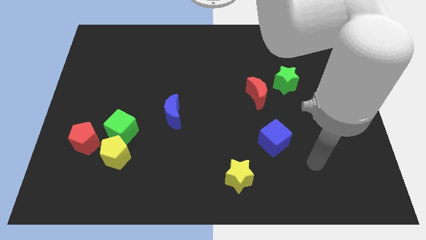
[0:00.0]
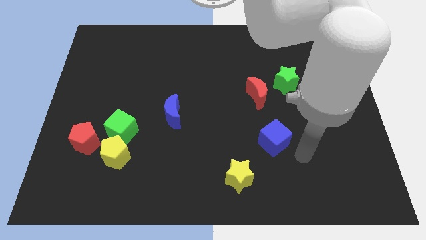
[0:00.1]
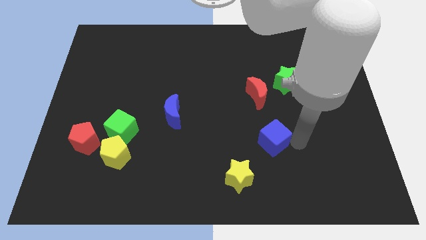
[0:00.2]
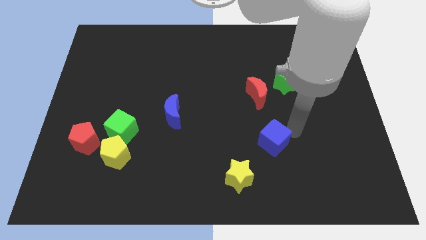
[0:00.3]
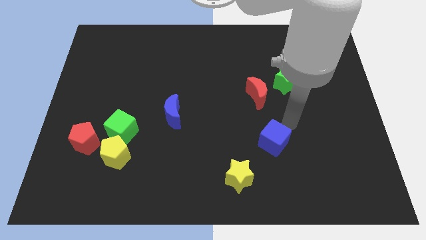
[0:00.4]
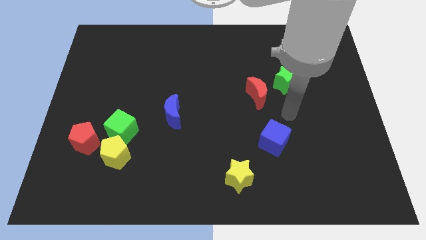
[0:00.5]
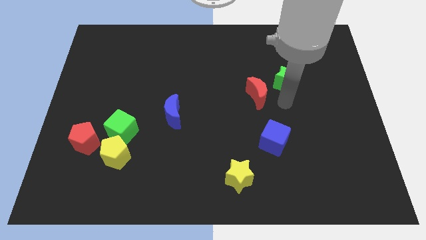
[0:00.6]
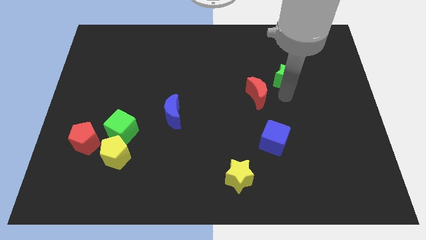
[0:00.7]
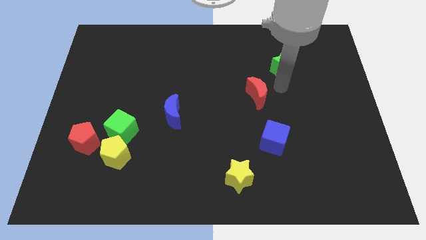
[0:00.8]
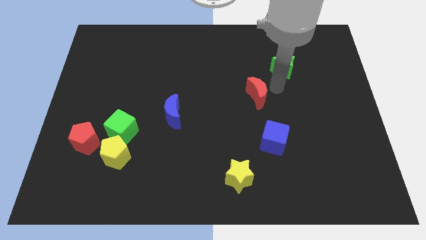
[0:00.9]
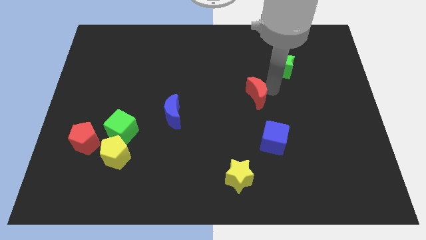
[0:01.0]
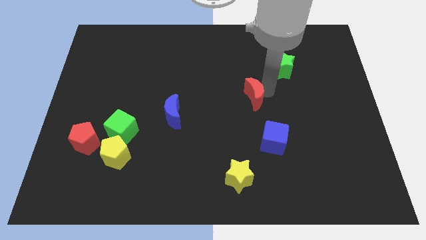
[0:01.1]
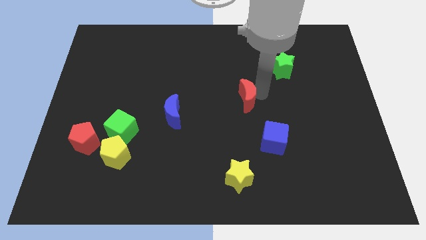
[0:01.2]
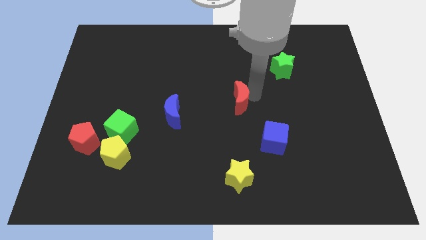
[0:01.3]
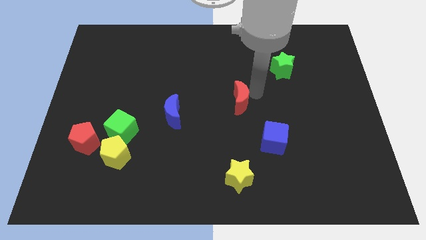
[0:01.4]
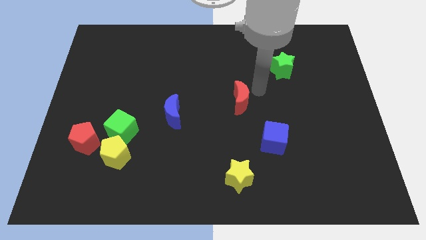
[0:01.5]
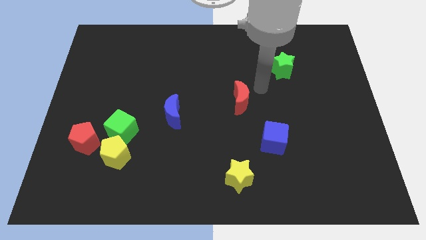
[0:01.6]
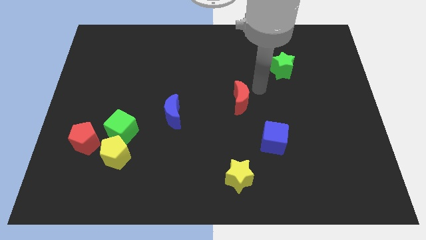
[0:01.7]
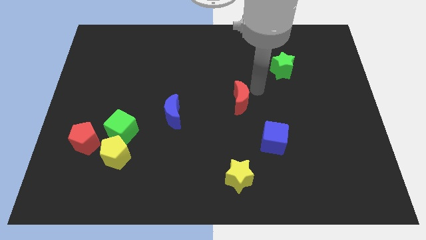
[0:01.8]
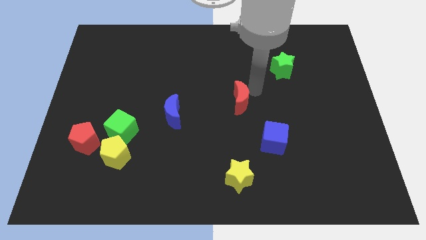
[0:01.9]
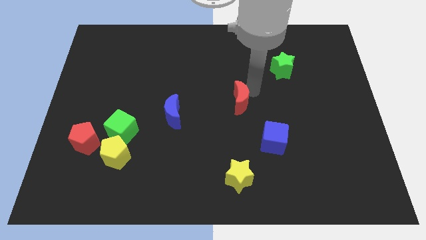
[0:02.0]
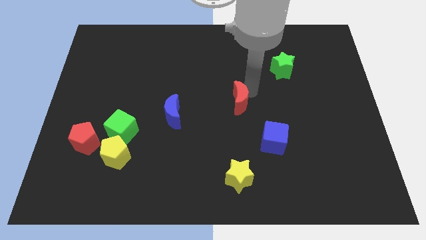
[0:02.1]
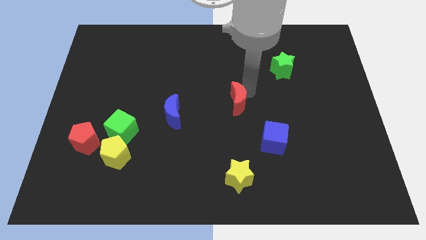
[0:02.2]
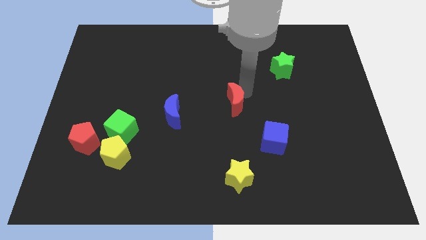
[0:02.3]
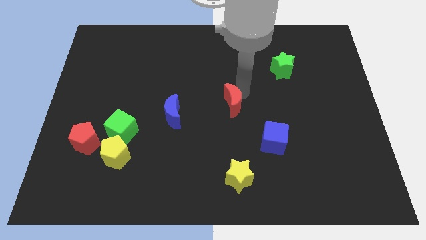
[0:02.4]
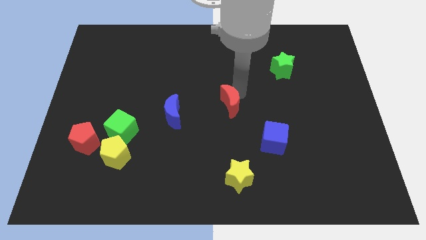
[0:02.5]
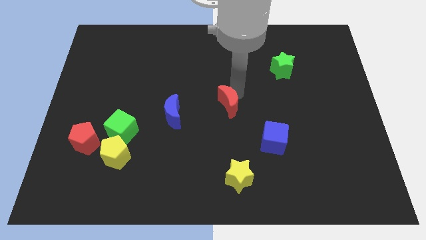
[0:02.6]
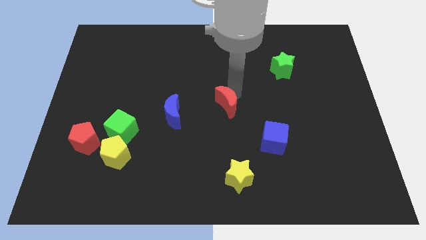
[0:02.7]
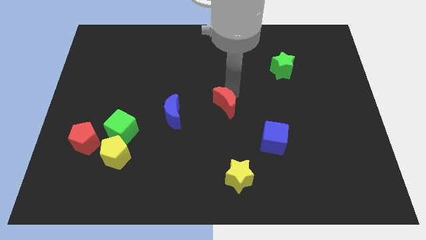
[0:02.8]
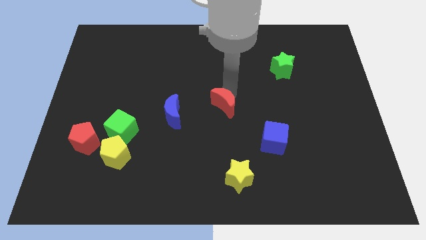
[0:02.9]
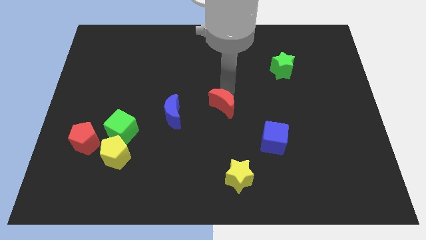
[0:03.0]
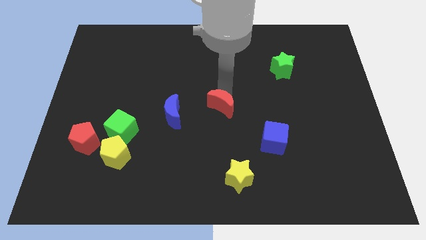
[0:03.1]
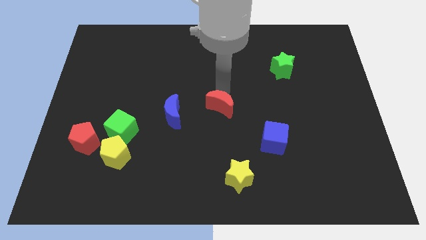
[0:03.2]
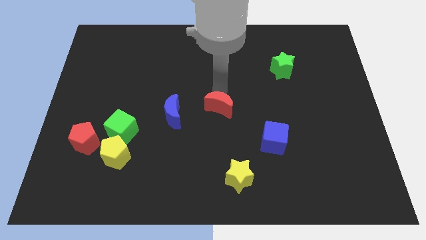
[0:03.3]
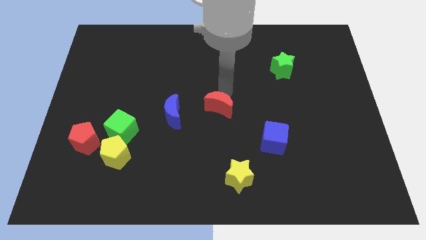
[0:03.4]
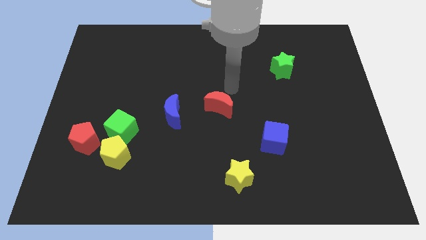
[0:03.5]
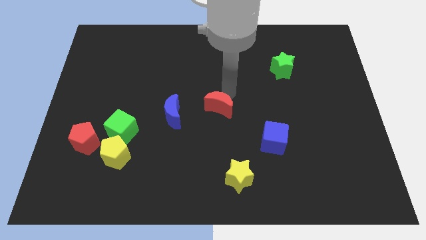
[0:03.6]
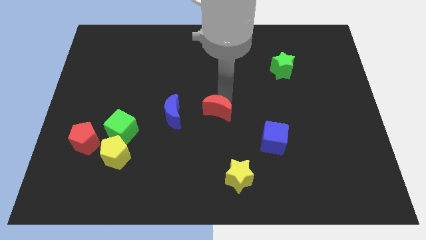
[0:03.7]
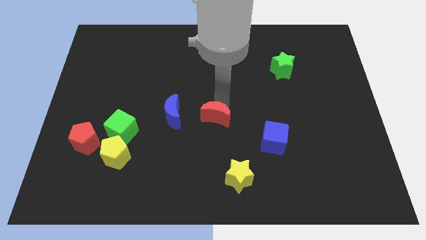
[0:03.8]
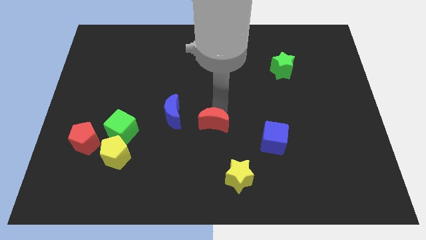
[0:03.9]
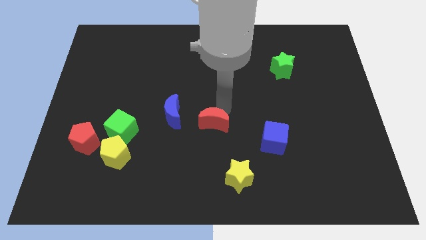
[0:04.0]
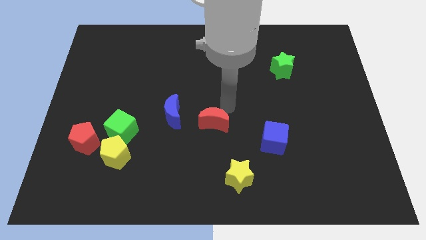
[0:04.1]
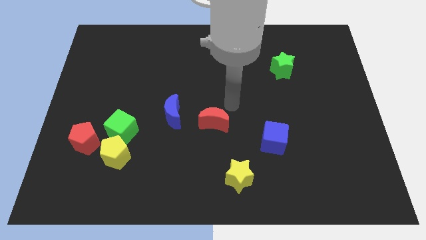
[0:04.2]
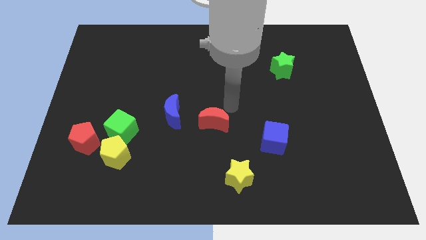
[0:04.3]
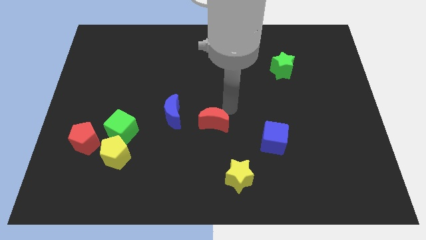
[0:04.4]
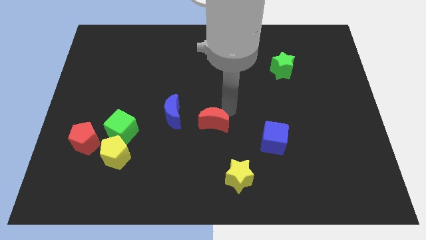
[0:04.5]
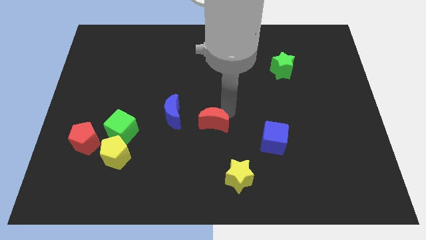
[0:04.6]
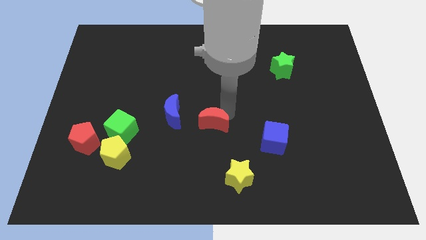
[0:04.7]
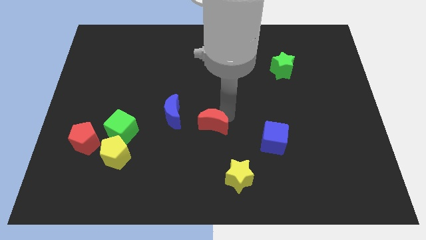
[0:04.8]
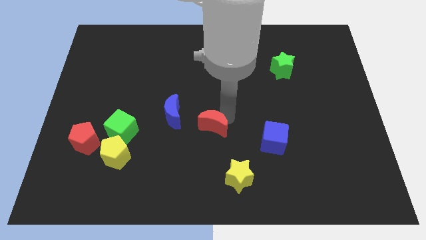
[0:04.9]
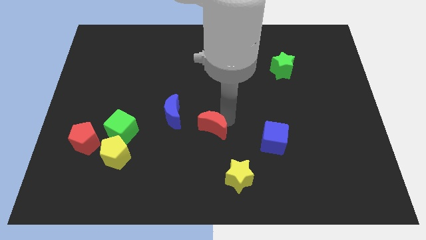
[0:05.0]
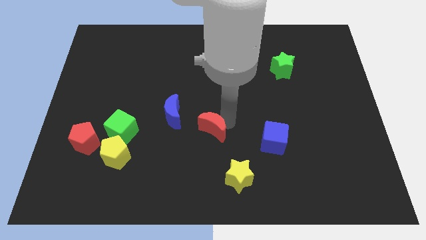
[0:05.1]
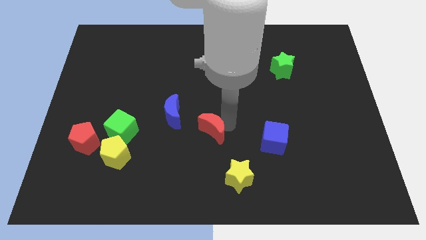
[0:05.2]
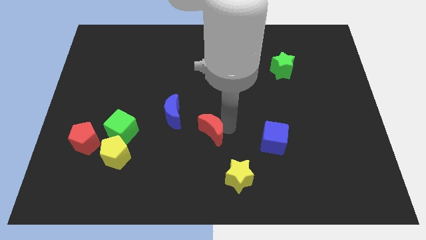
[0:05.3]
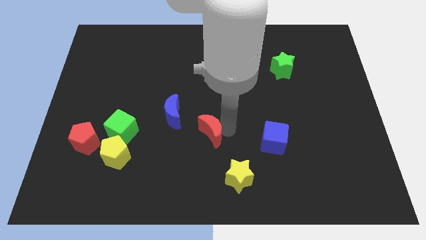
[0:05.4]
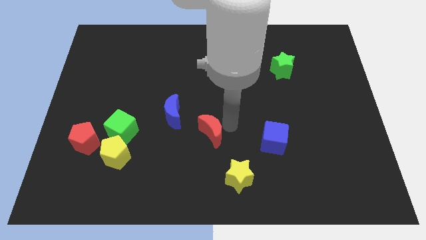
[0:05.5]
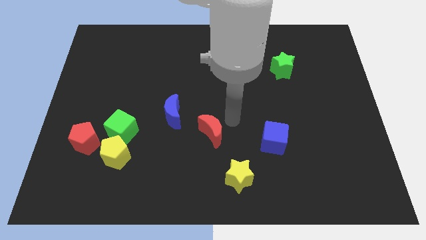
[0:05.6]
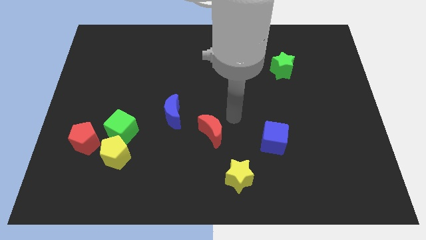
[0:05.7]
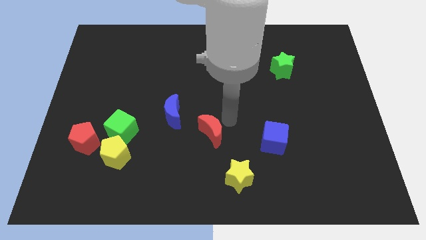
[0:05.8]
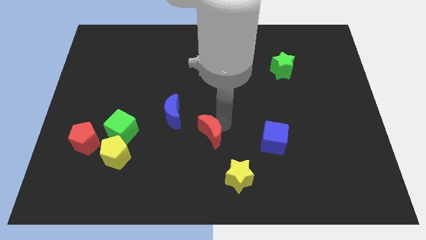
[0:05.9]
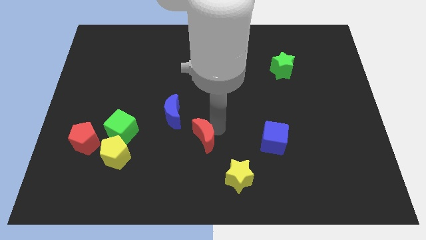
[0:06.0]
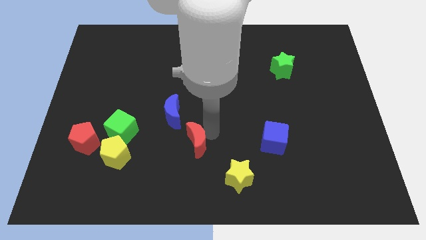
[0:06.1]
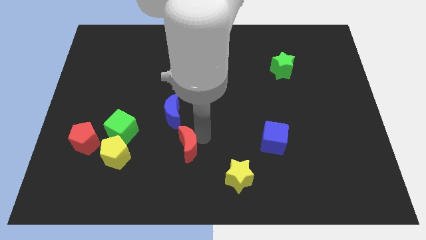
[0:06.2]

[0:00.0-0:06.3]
push the red moon down and then left

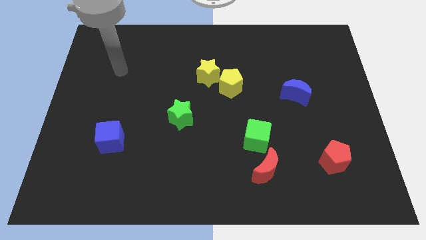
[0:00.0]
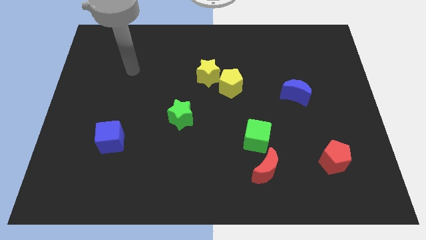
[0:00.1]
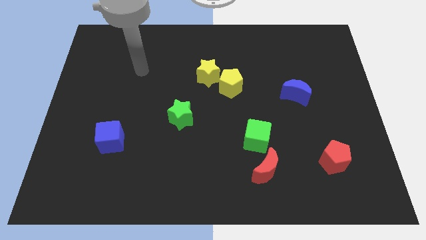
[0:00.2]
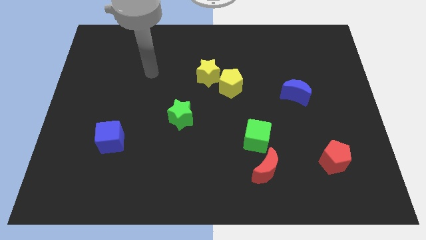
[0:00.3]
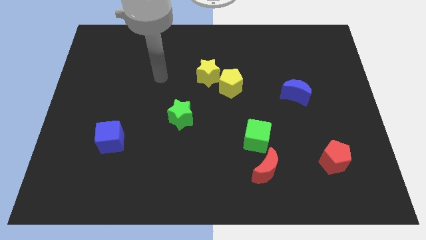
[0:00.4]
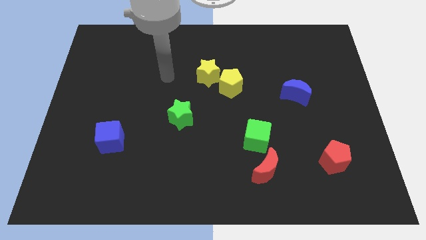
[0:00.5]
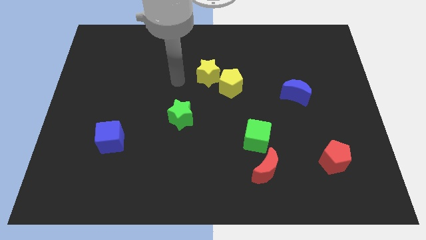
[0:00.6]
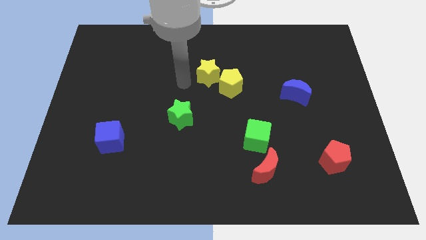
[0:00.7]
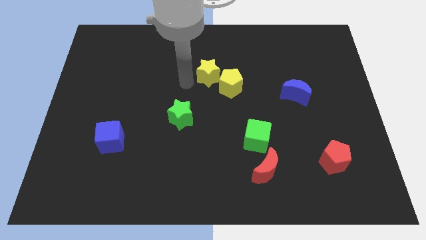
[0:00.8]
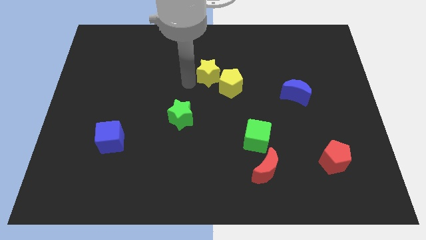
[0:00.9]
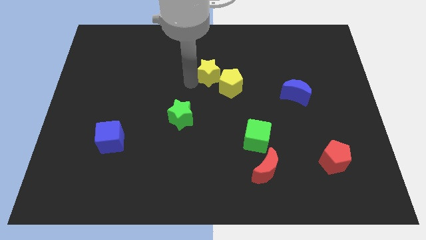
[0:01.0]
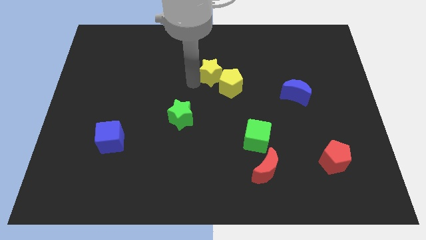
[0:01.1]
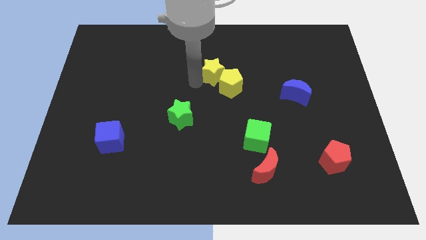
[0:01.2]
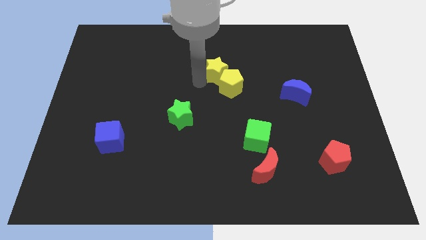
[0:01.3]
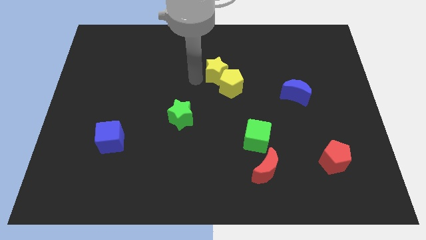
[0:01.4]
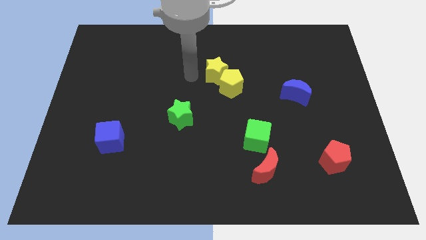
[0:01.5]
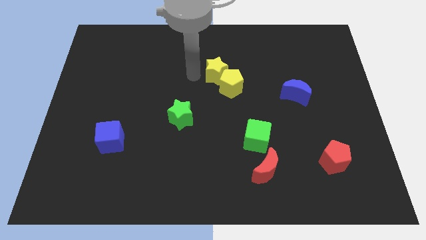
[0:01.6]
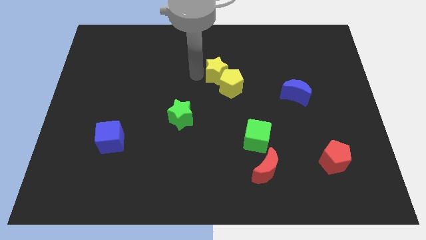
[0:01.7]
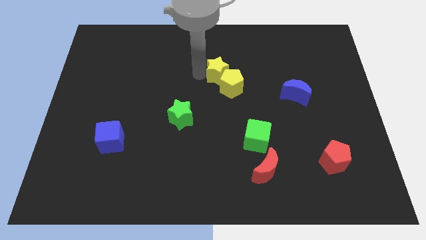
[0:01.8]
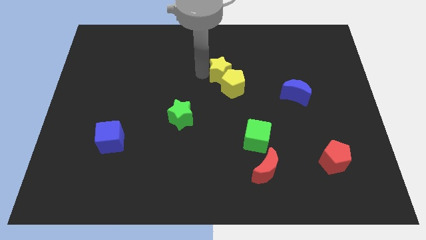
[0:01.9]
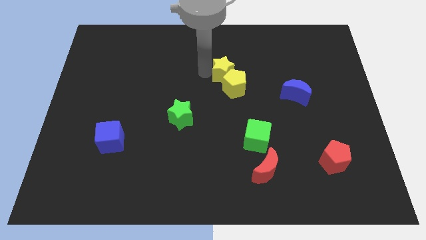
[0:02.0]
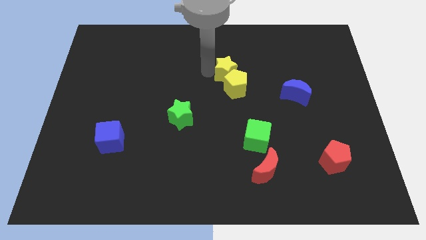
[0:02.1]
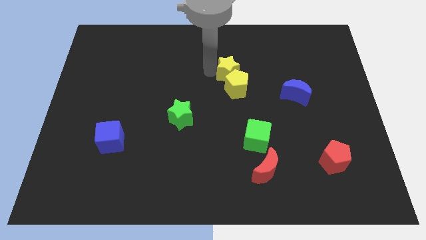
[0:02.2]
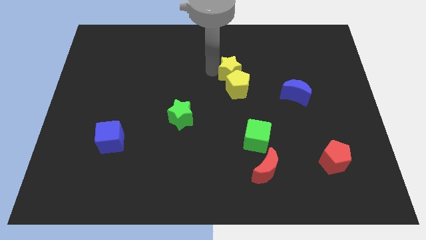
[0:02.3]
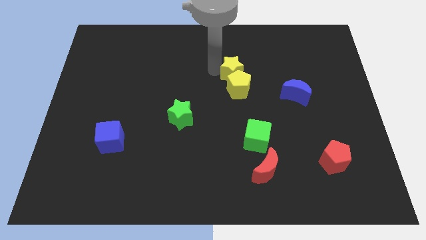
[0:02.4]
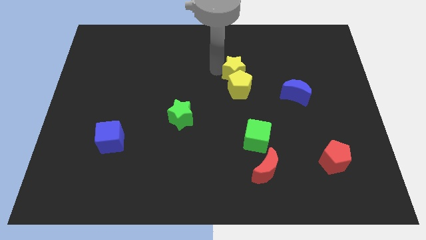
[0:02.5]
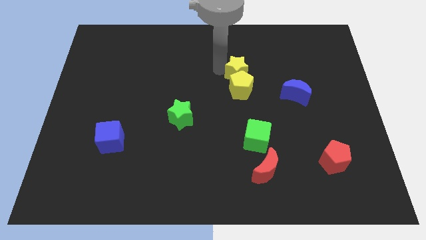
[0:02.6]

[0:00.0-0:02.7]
slightly slide the yellow star right
